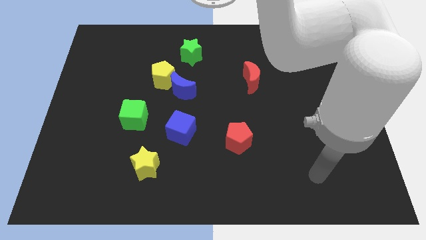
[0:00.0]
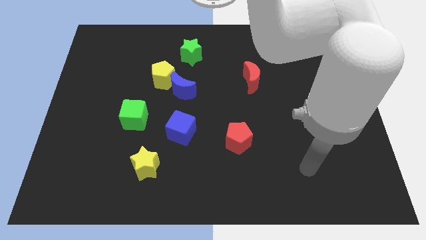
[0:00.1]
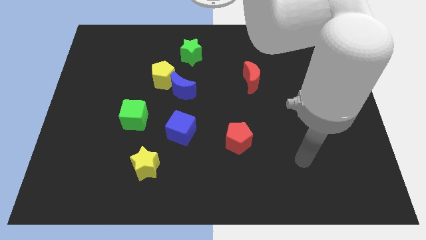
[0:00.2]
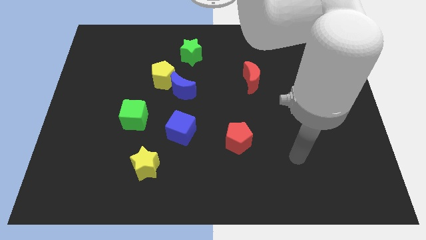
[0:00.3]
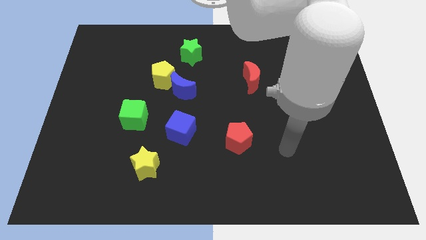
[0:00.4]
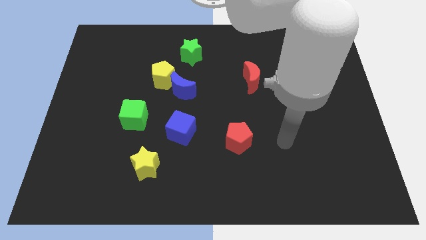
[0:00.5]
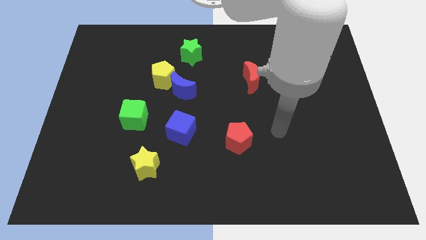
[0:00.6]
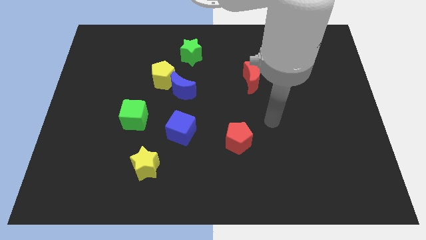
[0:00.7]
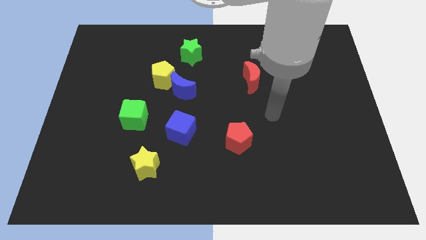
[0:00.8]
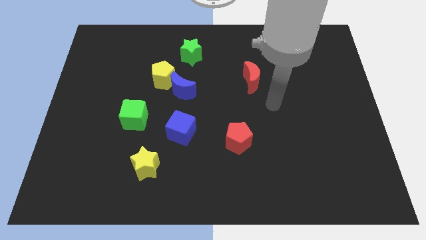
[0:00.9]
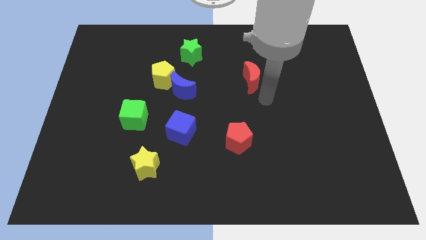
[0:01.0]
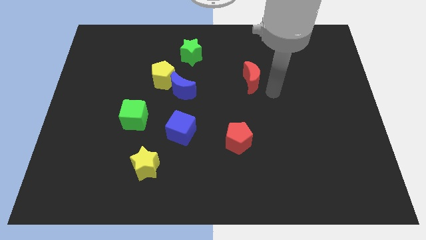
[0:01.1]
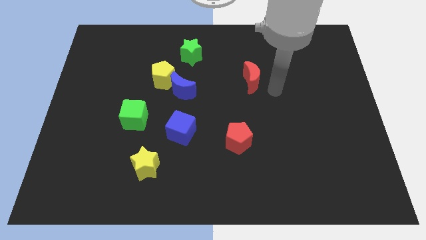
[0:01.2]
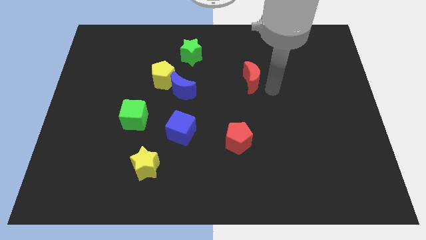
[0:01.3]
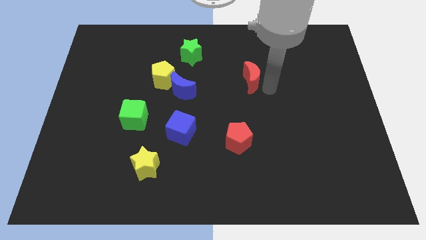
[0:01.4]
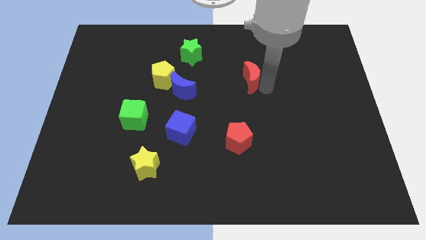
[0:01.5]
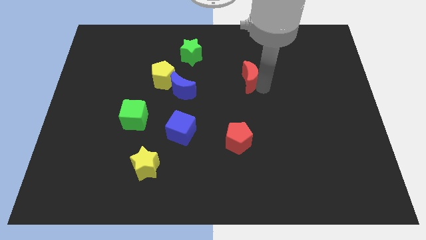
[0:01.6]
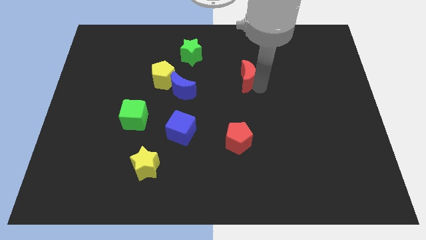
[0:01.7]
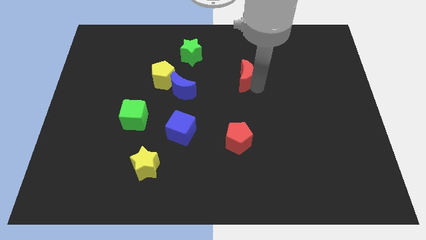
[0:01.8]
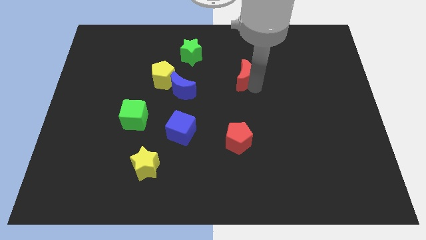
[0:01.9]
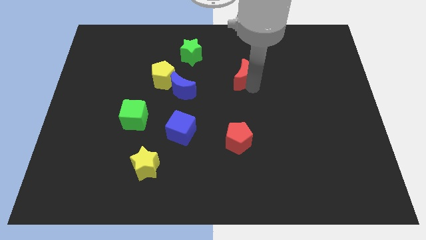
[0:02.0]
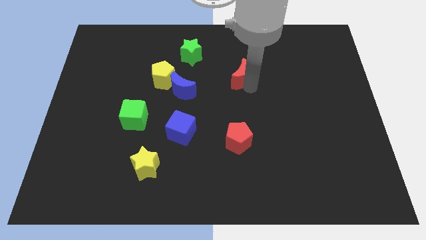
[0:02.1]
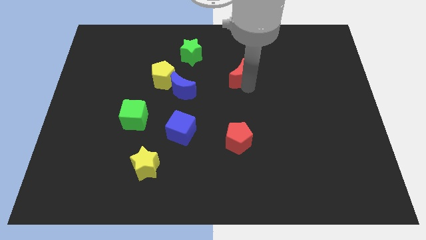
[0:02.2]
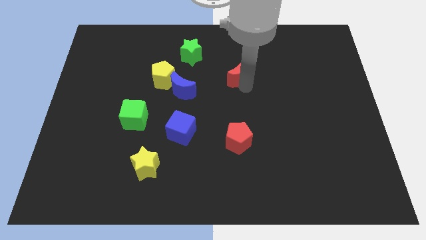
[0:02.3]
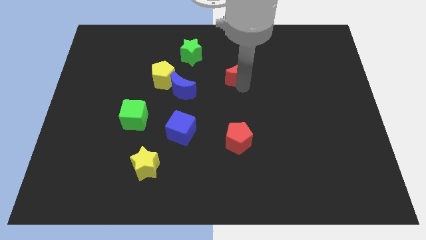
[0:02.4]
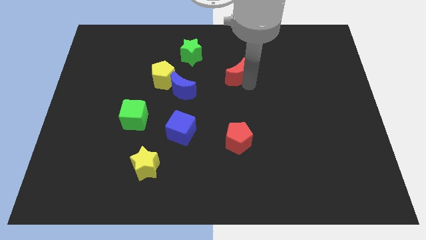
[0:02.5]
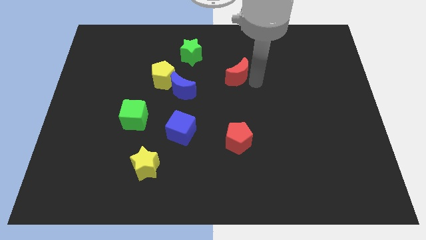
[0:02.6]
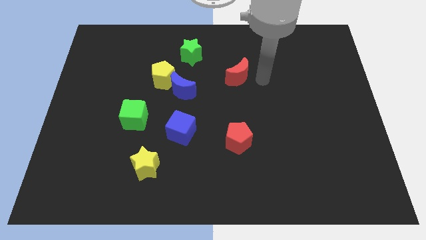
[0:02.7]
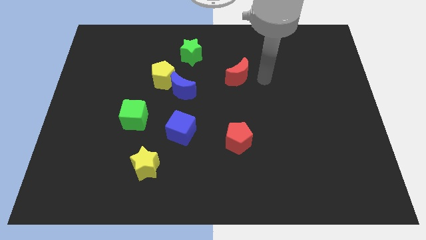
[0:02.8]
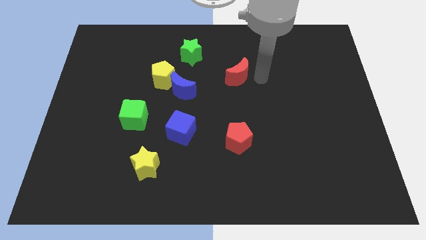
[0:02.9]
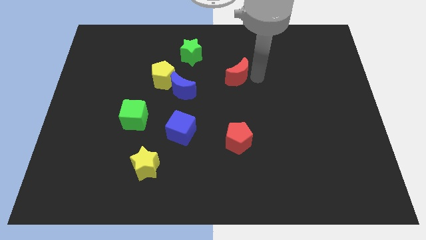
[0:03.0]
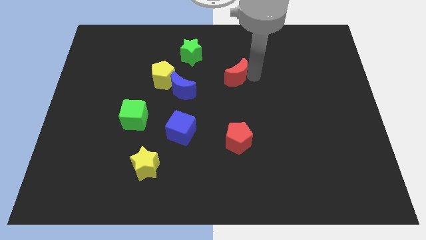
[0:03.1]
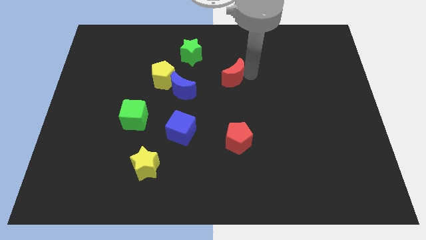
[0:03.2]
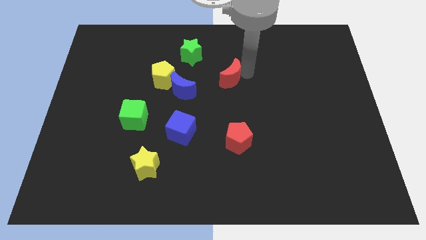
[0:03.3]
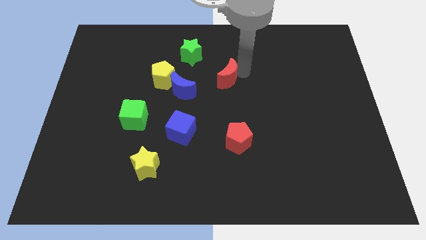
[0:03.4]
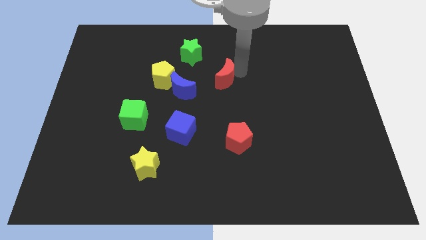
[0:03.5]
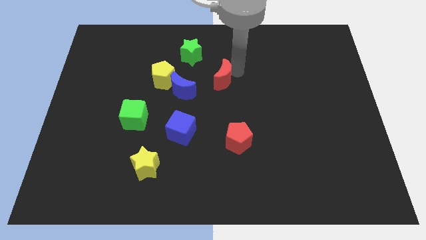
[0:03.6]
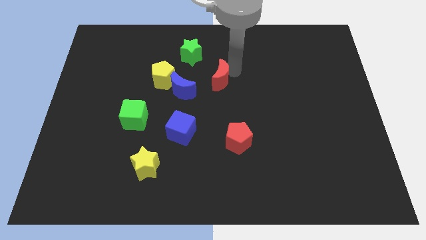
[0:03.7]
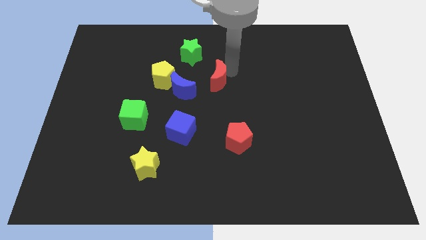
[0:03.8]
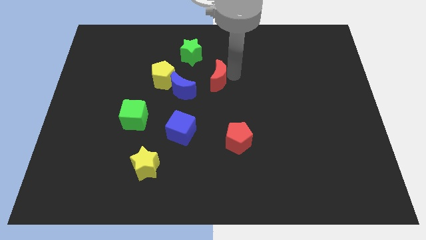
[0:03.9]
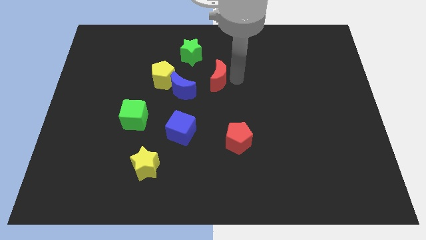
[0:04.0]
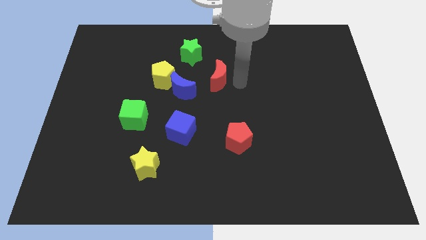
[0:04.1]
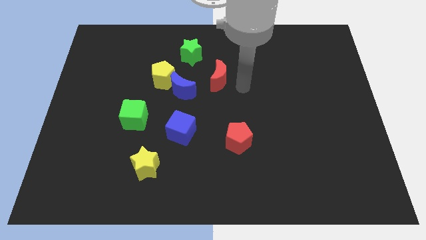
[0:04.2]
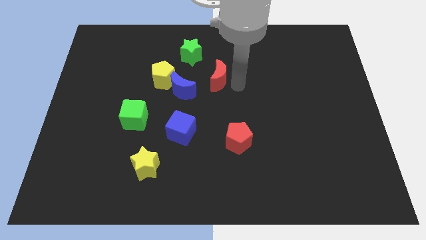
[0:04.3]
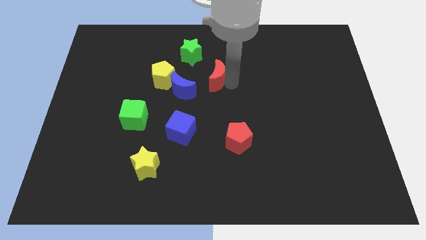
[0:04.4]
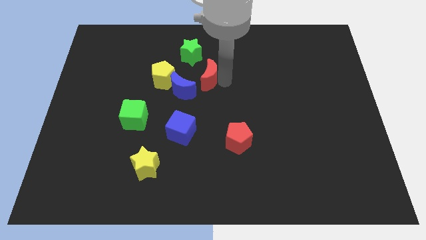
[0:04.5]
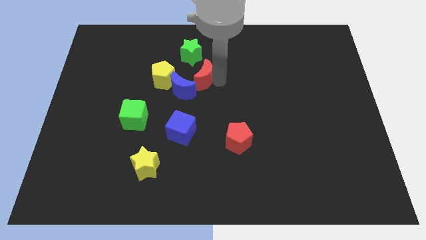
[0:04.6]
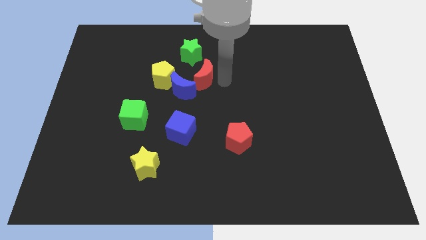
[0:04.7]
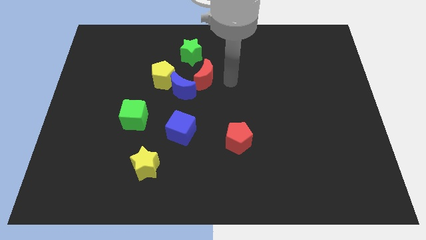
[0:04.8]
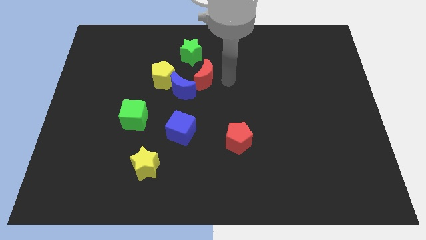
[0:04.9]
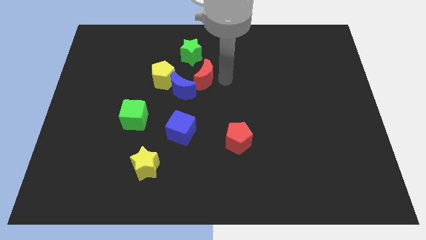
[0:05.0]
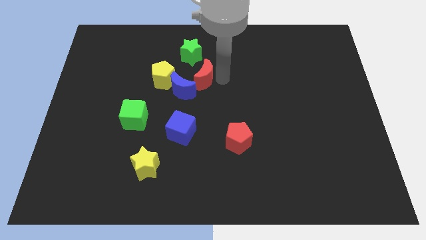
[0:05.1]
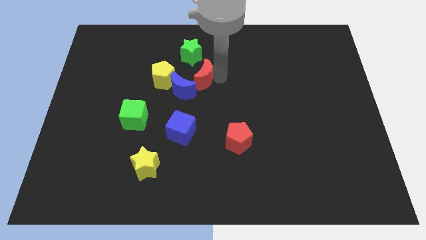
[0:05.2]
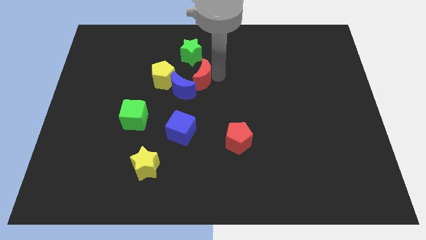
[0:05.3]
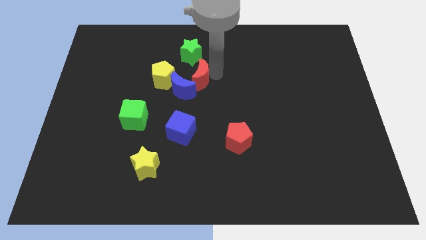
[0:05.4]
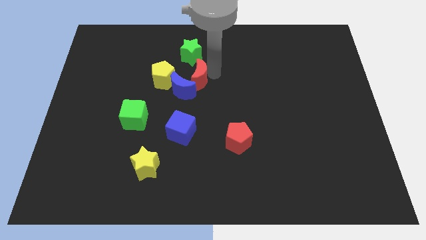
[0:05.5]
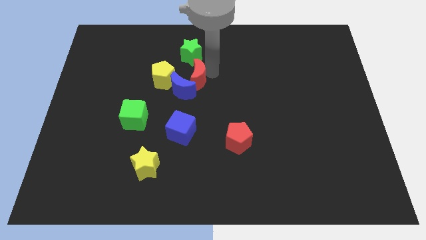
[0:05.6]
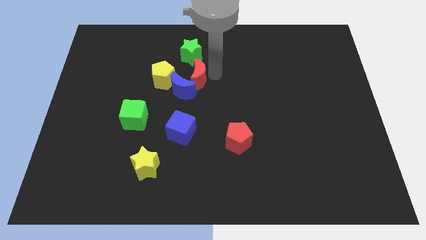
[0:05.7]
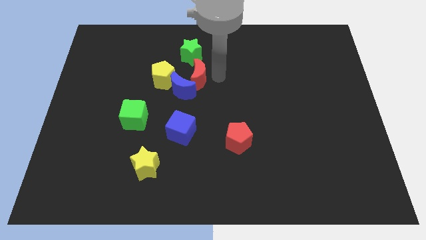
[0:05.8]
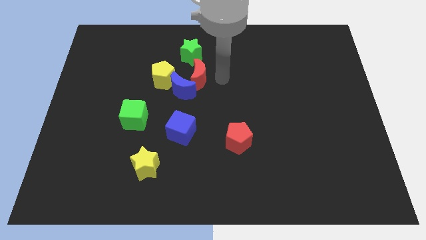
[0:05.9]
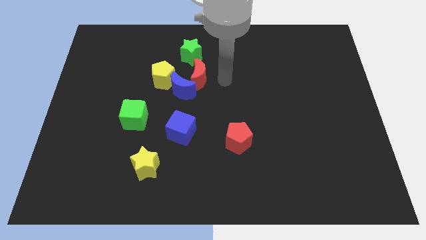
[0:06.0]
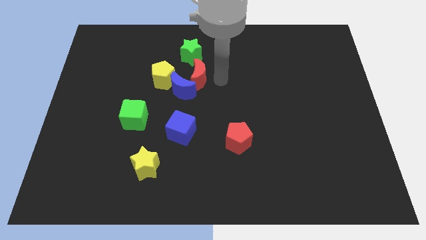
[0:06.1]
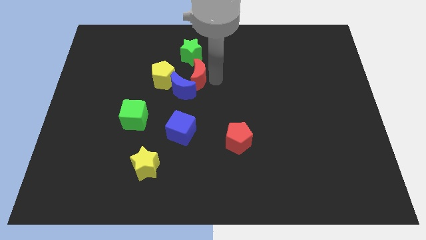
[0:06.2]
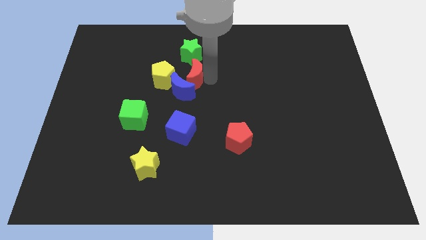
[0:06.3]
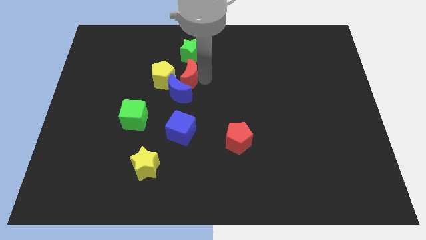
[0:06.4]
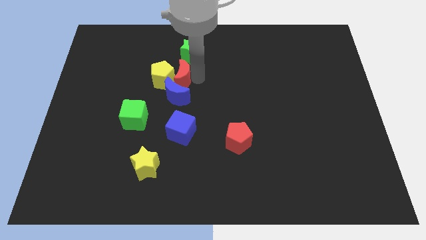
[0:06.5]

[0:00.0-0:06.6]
put the red moon towards the yellow pentagon
